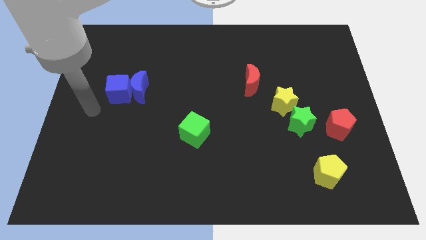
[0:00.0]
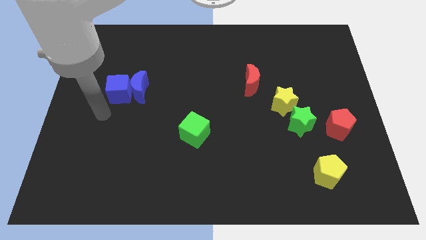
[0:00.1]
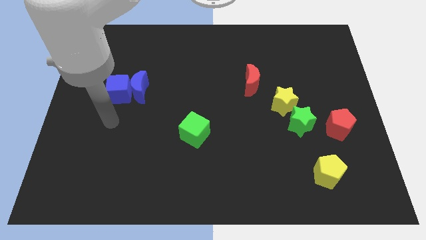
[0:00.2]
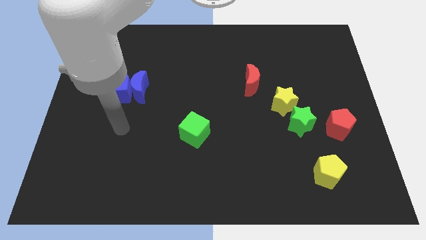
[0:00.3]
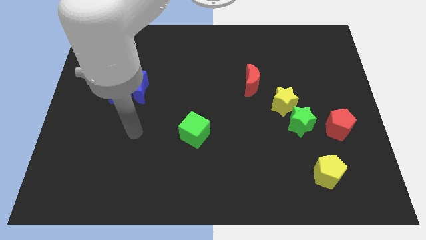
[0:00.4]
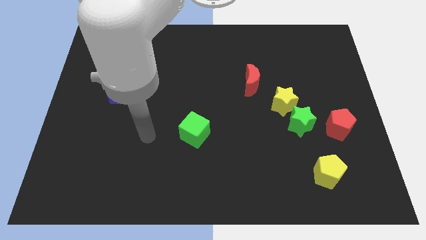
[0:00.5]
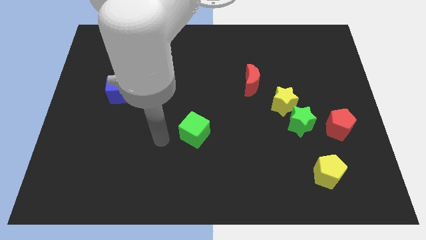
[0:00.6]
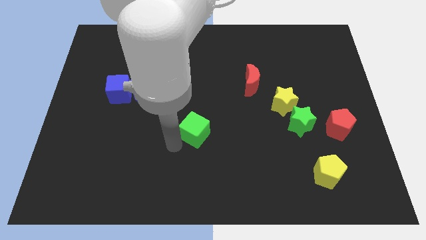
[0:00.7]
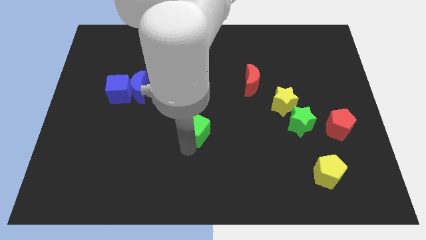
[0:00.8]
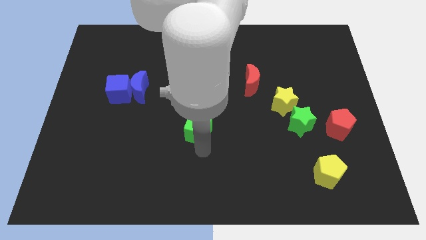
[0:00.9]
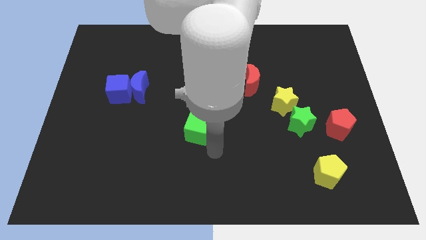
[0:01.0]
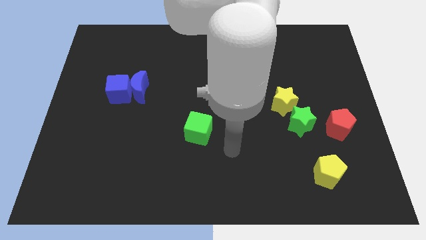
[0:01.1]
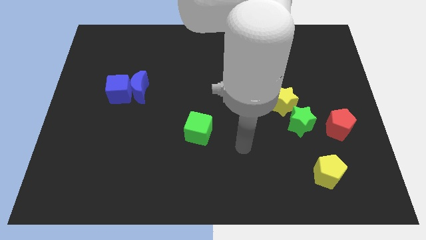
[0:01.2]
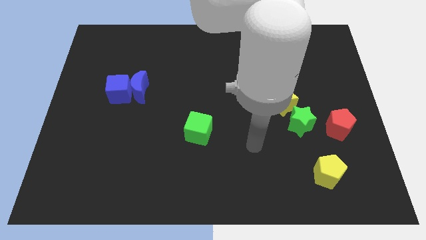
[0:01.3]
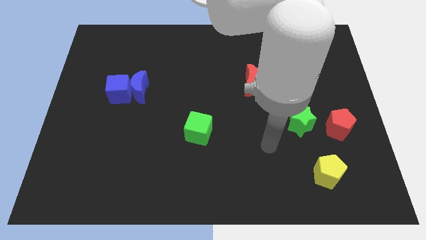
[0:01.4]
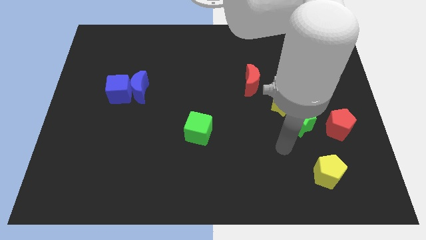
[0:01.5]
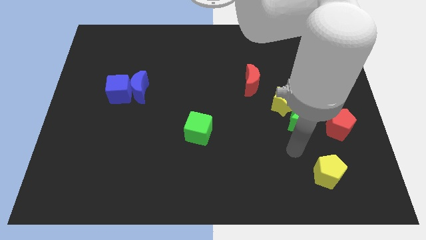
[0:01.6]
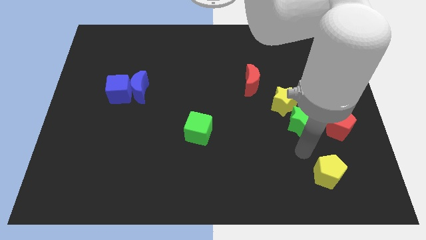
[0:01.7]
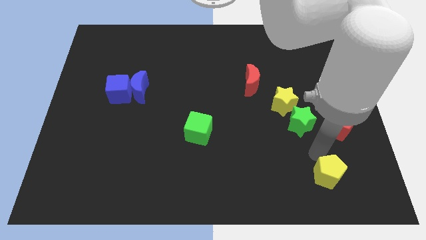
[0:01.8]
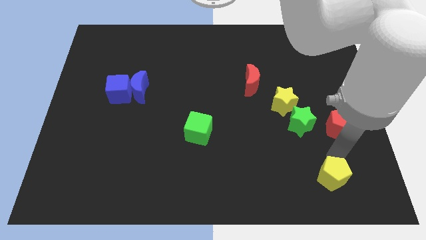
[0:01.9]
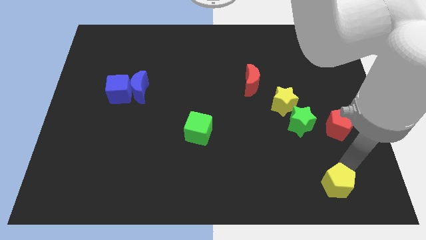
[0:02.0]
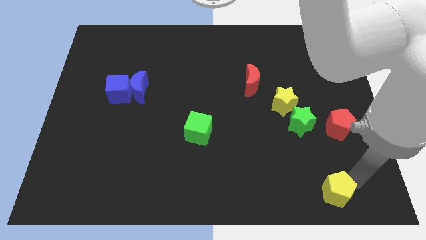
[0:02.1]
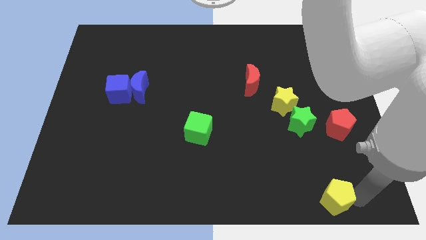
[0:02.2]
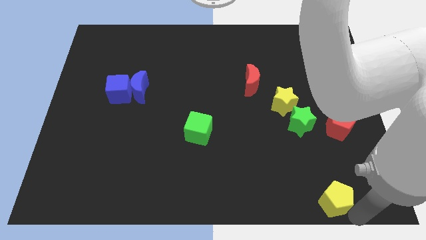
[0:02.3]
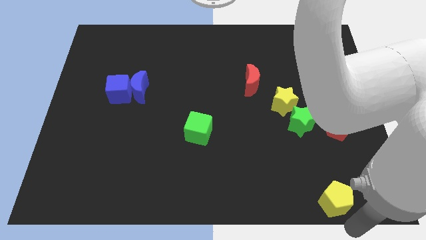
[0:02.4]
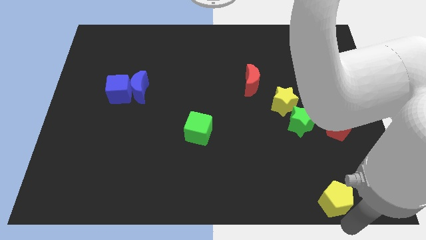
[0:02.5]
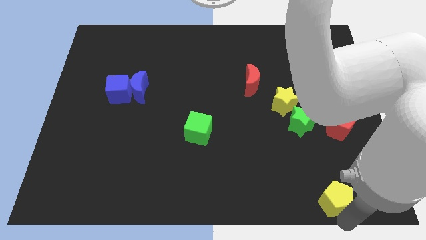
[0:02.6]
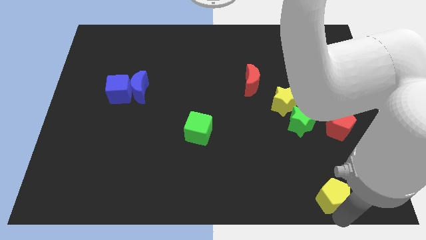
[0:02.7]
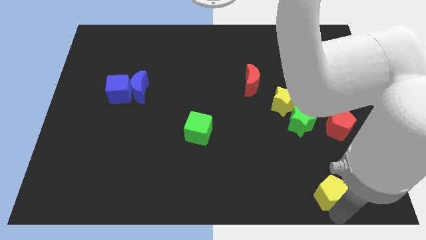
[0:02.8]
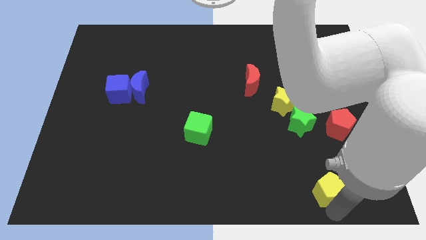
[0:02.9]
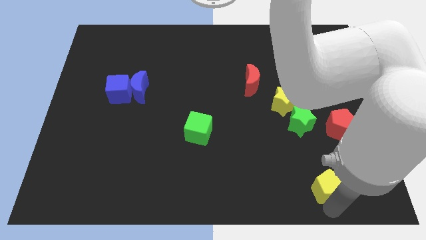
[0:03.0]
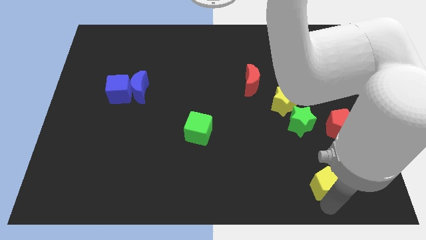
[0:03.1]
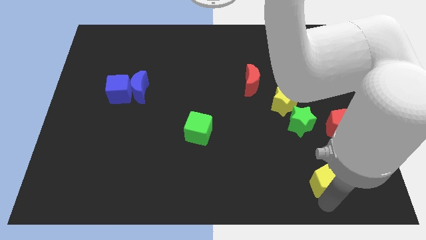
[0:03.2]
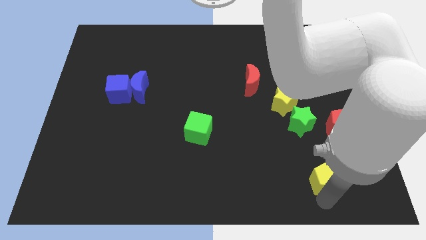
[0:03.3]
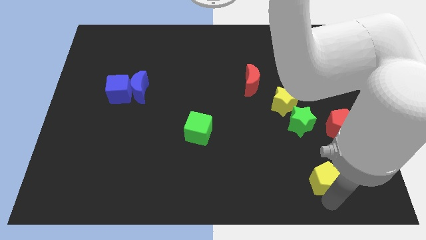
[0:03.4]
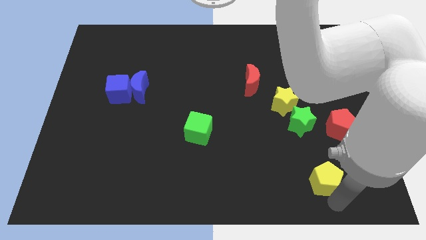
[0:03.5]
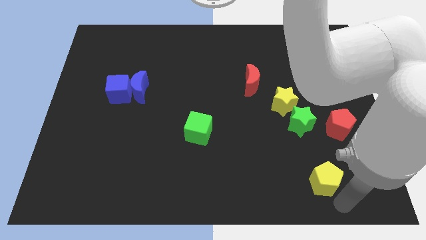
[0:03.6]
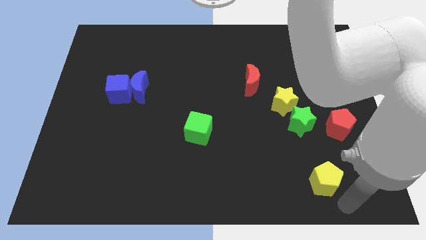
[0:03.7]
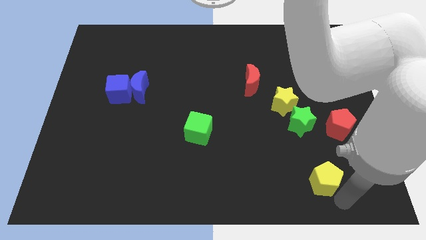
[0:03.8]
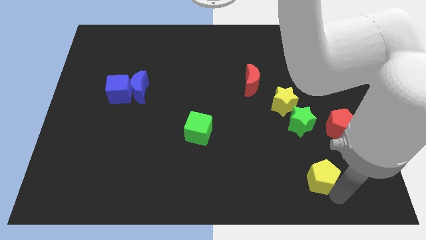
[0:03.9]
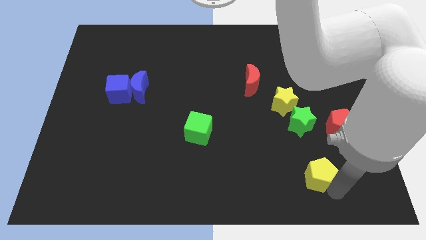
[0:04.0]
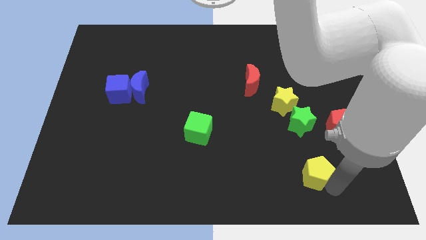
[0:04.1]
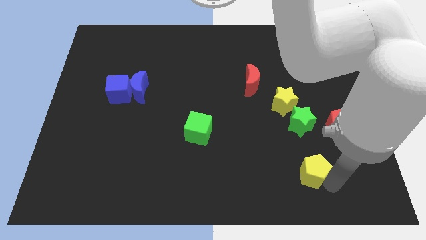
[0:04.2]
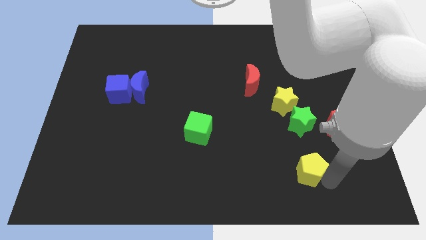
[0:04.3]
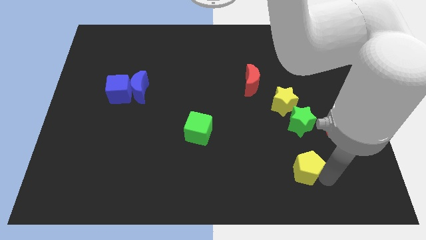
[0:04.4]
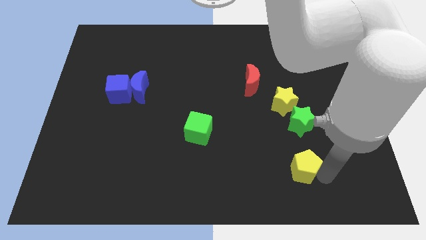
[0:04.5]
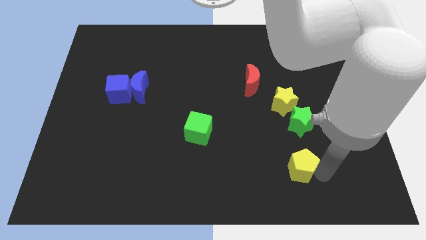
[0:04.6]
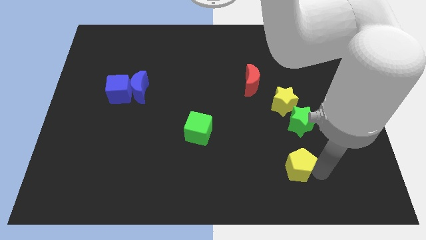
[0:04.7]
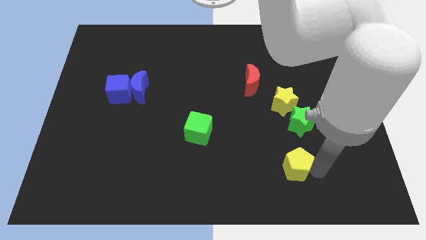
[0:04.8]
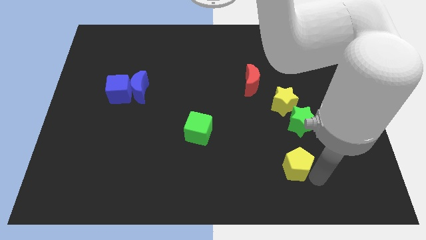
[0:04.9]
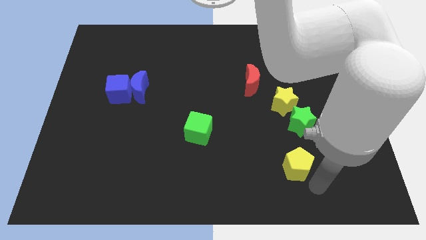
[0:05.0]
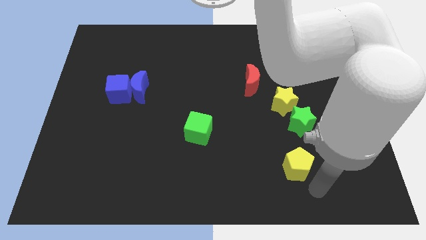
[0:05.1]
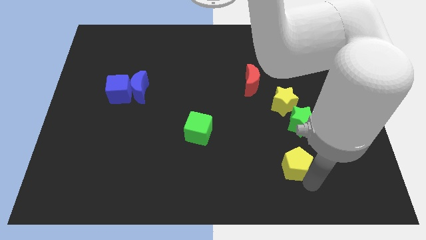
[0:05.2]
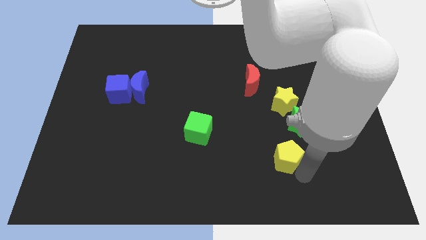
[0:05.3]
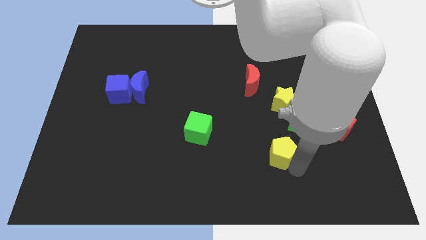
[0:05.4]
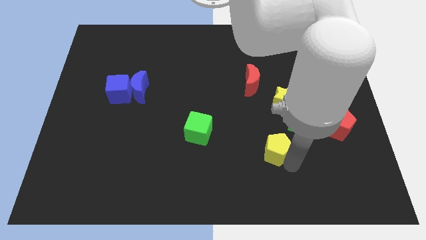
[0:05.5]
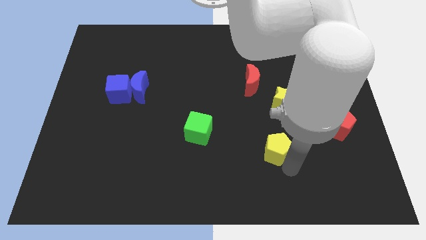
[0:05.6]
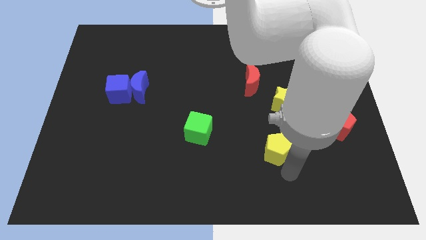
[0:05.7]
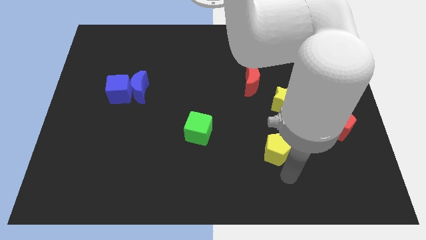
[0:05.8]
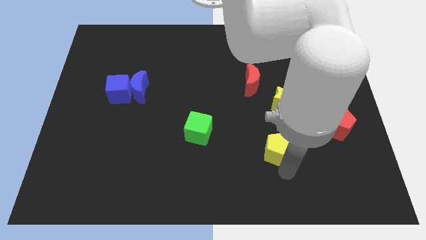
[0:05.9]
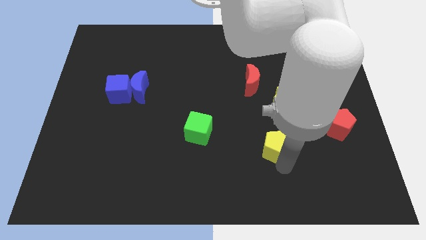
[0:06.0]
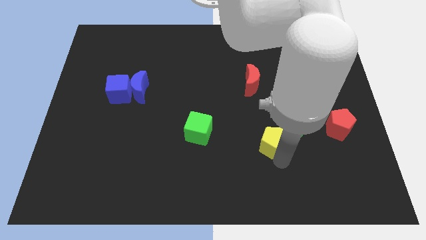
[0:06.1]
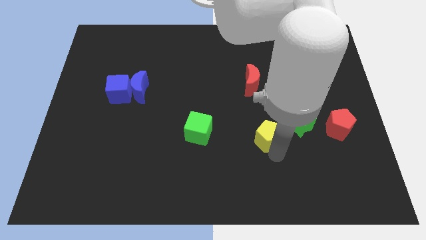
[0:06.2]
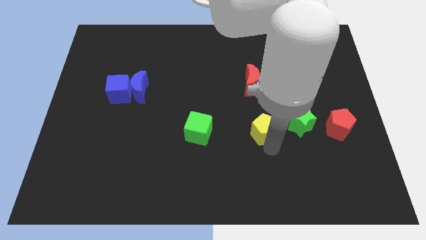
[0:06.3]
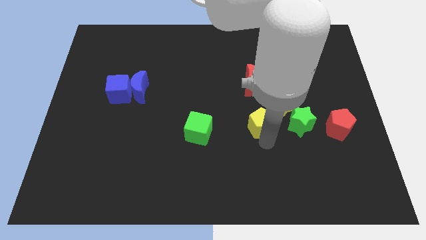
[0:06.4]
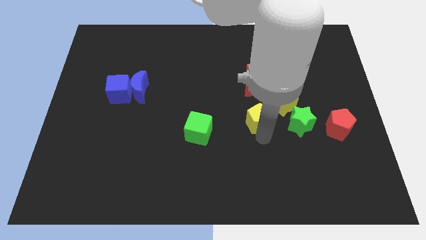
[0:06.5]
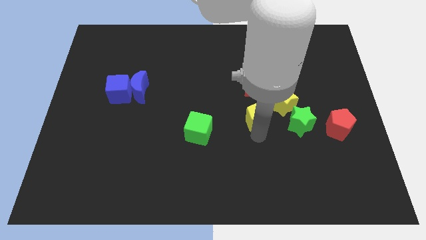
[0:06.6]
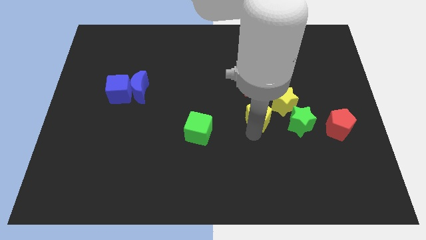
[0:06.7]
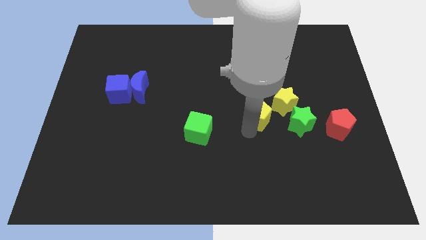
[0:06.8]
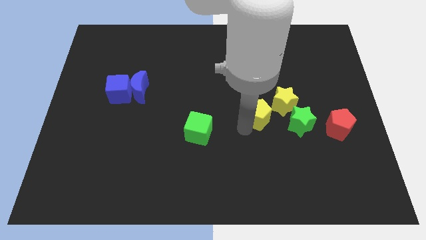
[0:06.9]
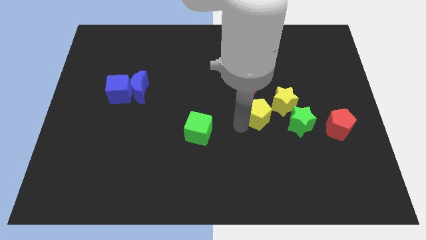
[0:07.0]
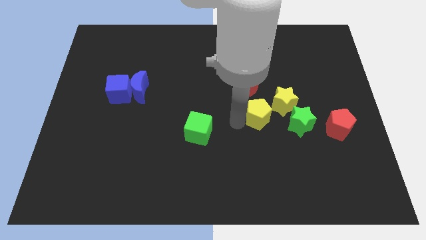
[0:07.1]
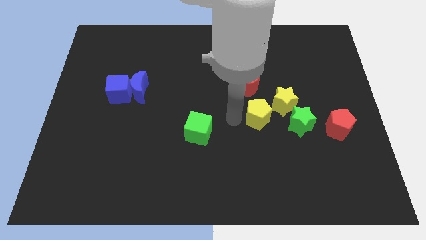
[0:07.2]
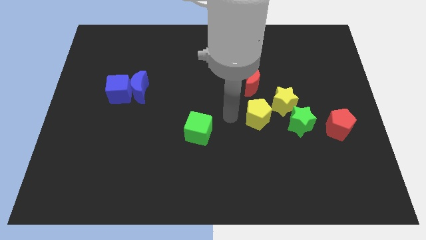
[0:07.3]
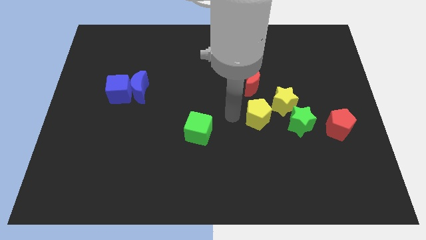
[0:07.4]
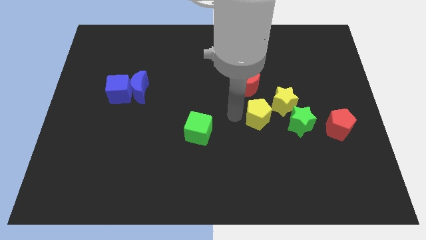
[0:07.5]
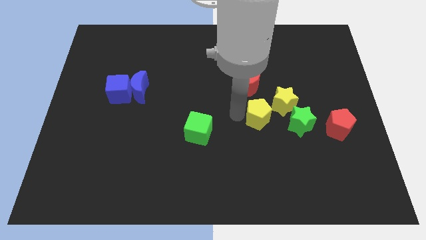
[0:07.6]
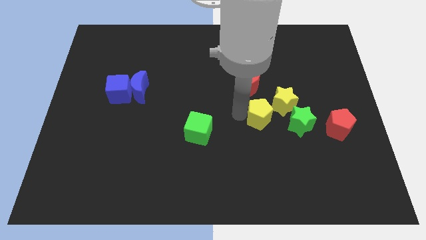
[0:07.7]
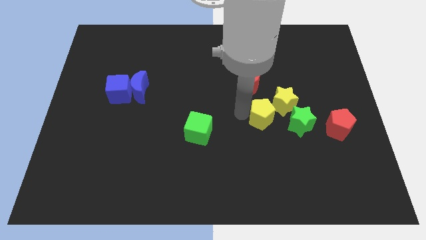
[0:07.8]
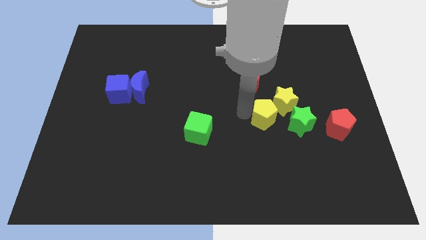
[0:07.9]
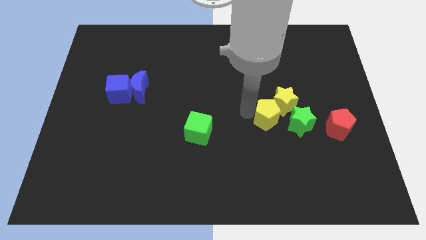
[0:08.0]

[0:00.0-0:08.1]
slide the yellow pentagon close to the yellow star
